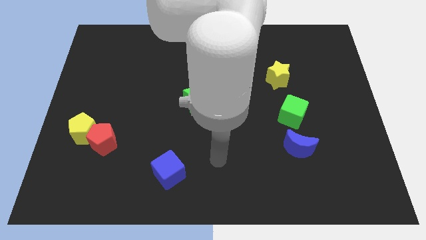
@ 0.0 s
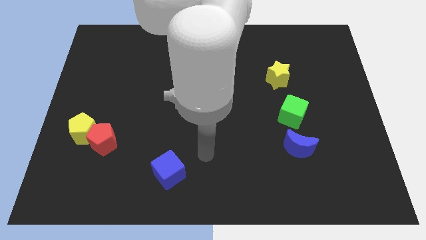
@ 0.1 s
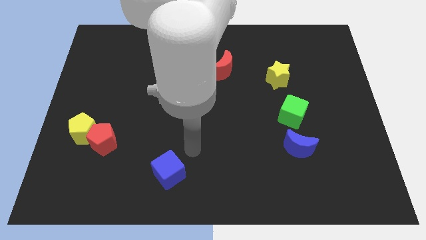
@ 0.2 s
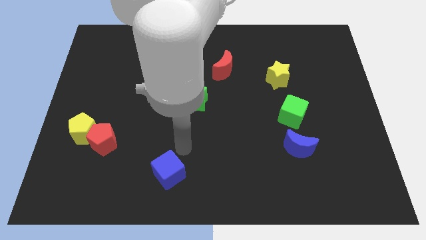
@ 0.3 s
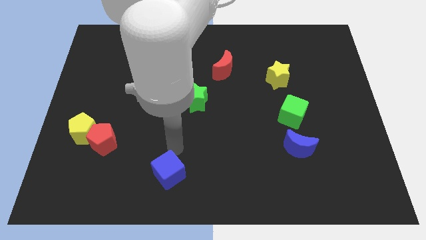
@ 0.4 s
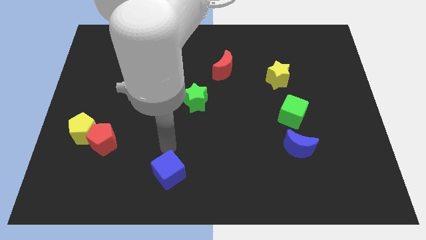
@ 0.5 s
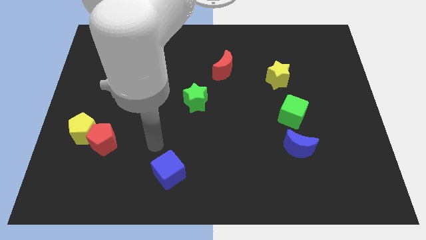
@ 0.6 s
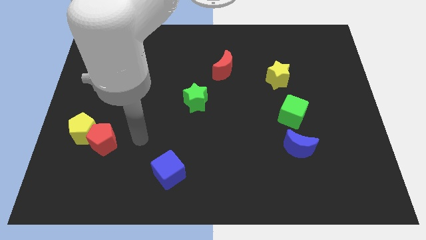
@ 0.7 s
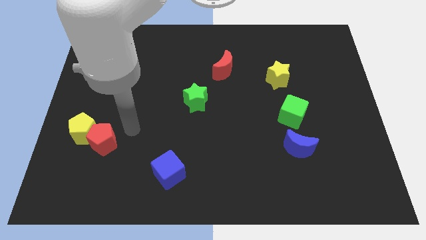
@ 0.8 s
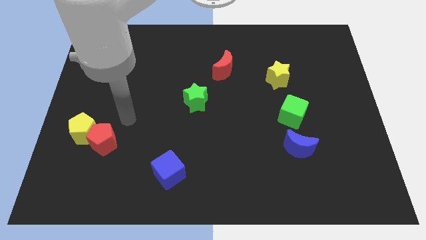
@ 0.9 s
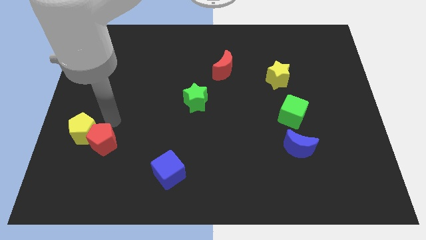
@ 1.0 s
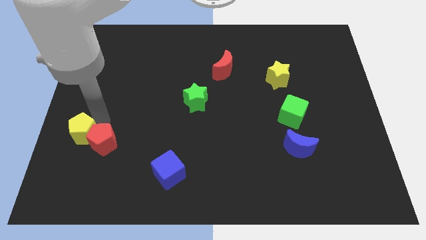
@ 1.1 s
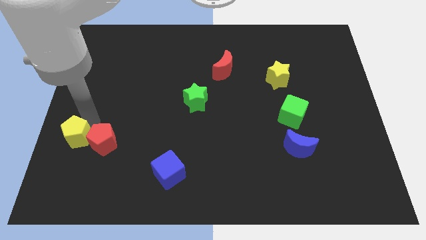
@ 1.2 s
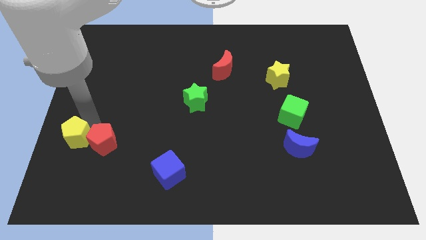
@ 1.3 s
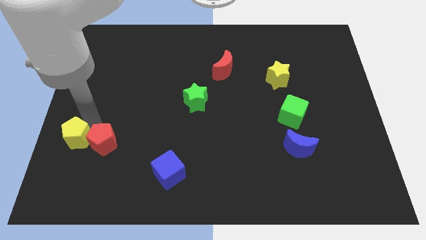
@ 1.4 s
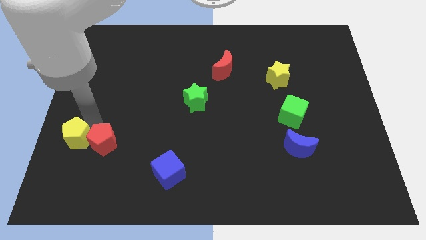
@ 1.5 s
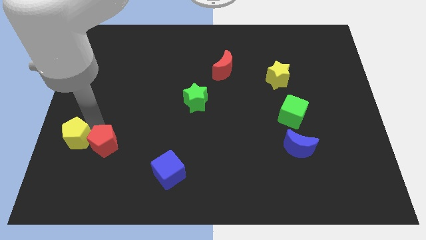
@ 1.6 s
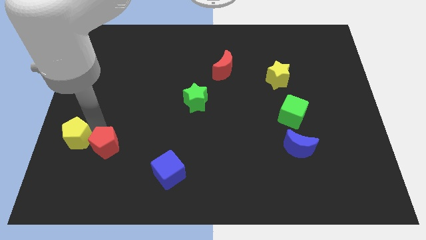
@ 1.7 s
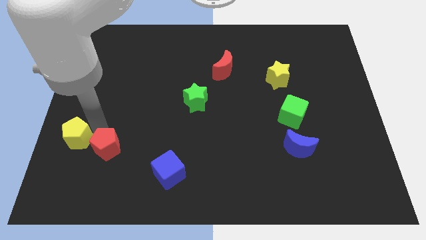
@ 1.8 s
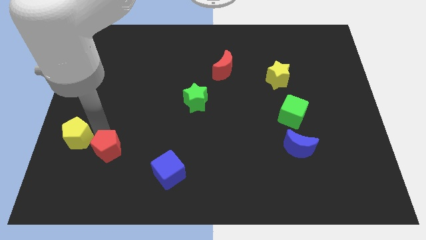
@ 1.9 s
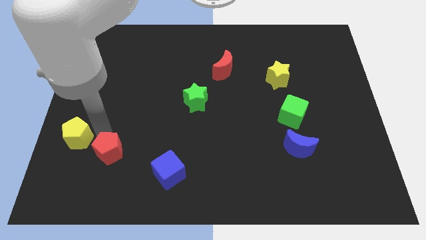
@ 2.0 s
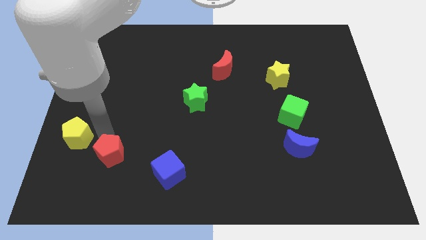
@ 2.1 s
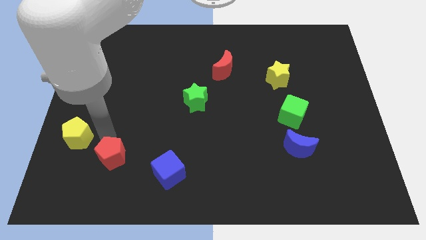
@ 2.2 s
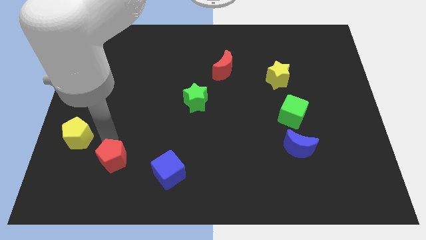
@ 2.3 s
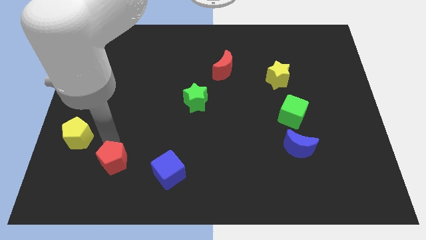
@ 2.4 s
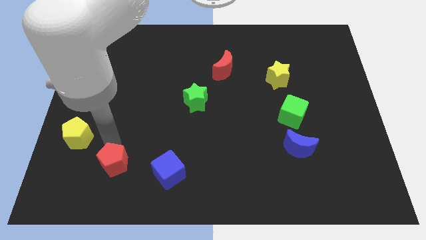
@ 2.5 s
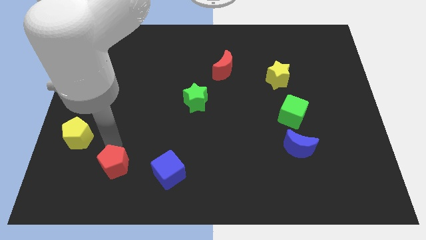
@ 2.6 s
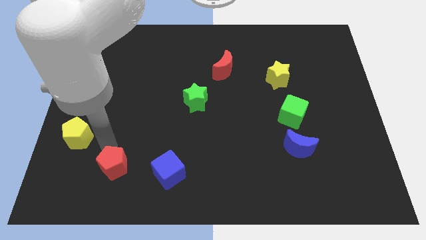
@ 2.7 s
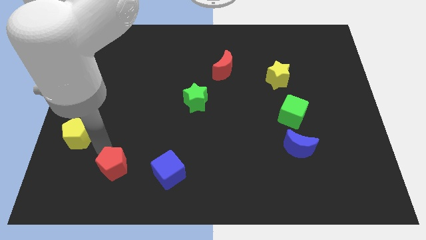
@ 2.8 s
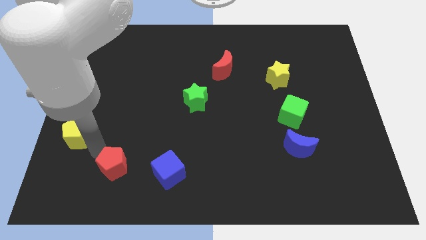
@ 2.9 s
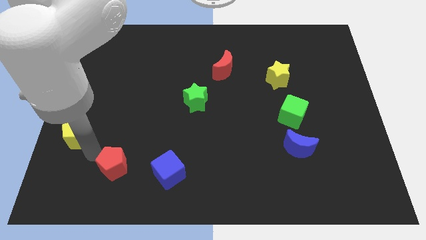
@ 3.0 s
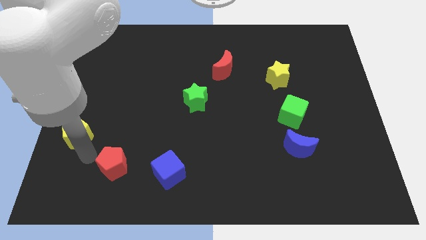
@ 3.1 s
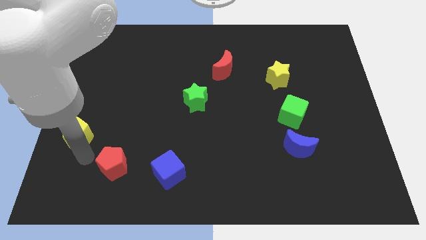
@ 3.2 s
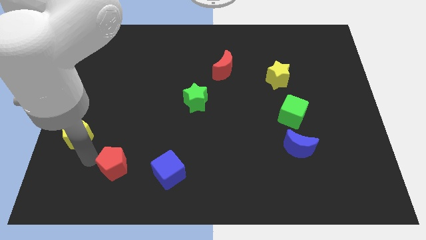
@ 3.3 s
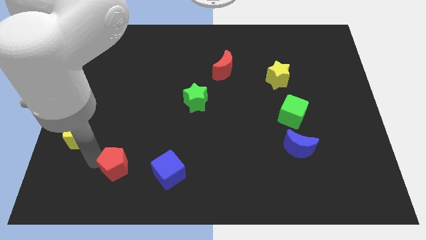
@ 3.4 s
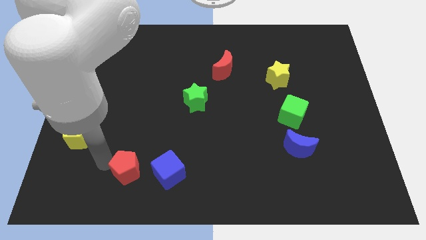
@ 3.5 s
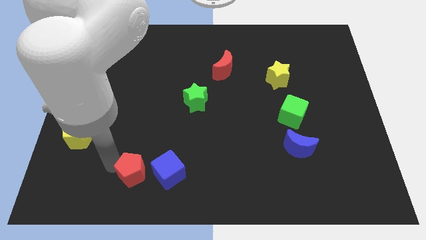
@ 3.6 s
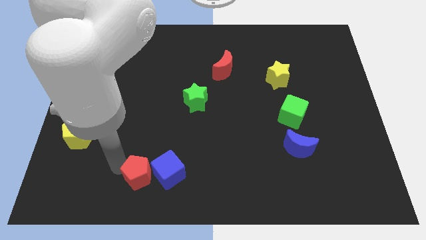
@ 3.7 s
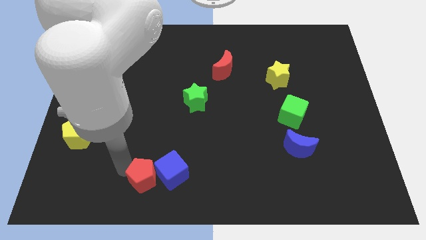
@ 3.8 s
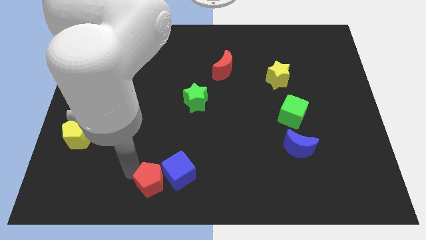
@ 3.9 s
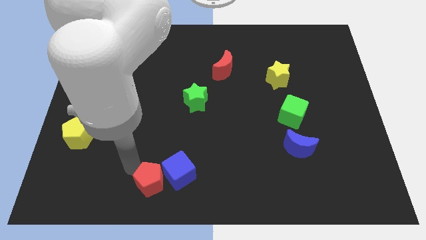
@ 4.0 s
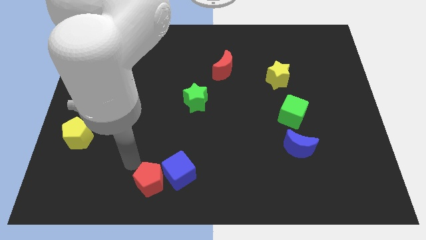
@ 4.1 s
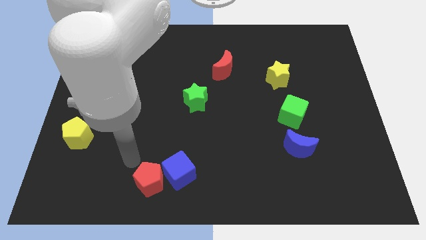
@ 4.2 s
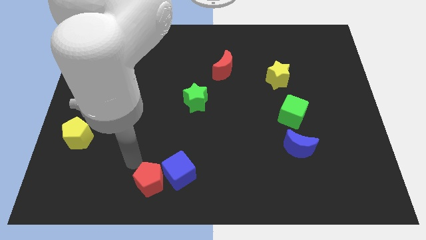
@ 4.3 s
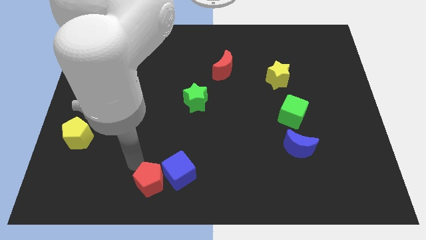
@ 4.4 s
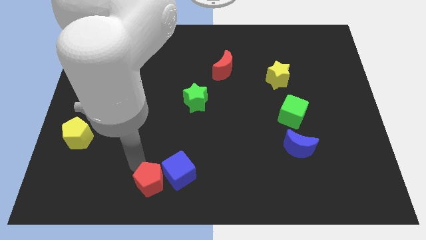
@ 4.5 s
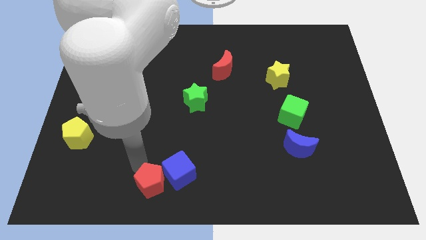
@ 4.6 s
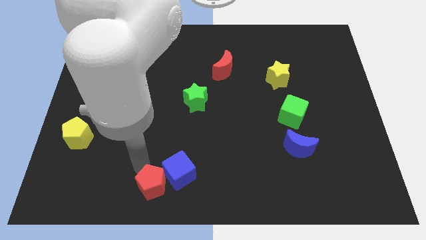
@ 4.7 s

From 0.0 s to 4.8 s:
put the red pentagon to the bottom

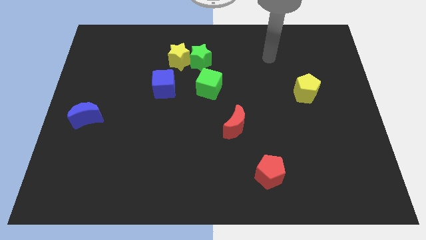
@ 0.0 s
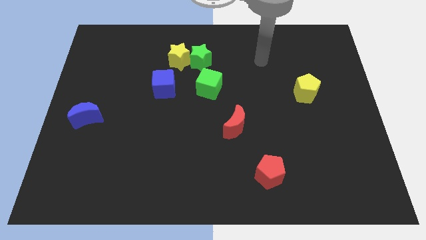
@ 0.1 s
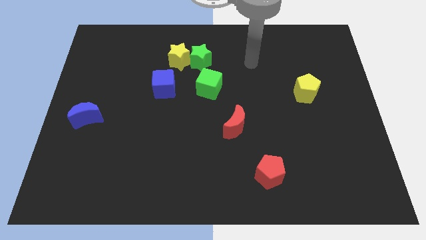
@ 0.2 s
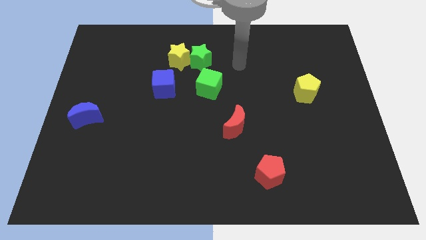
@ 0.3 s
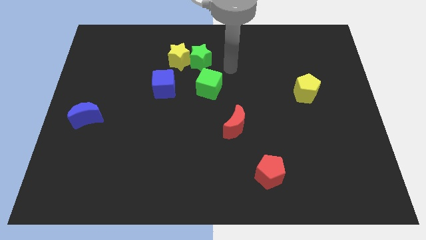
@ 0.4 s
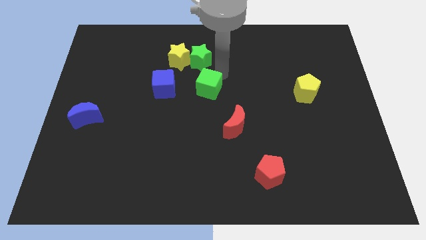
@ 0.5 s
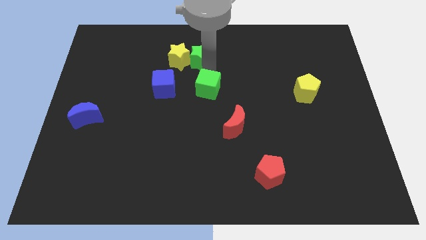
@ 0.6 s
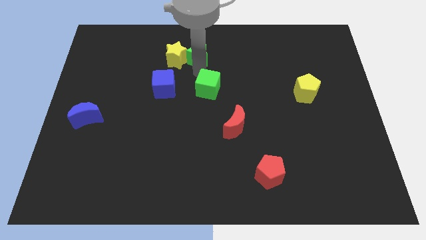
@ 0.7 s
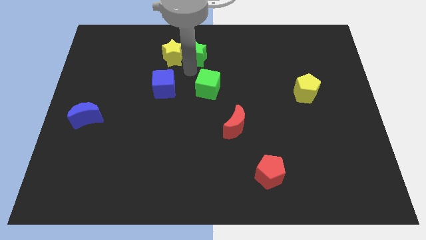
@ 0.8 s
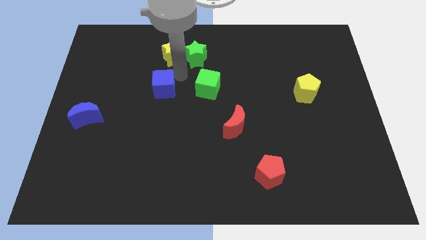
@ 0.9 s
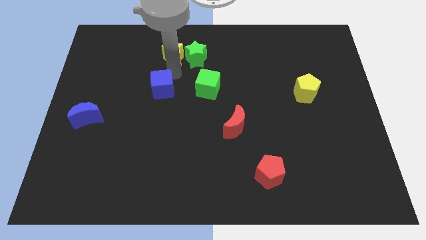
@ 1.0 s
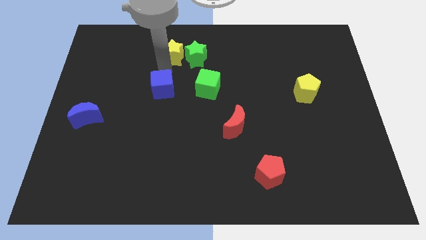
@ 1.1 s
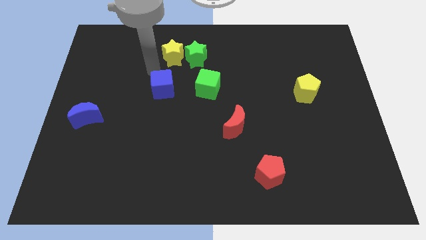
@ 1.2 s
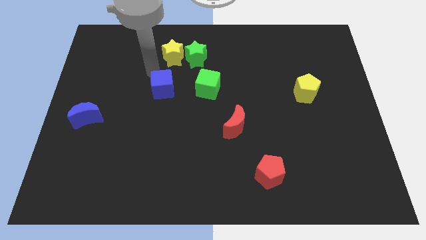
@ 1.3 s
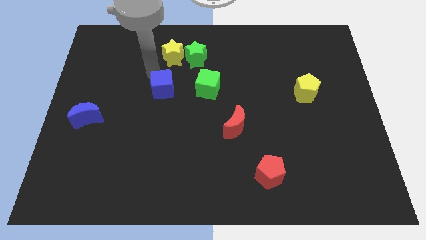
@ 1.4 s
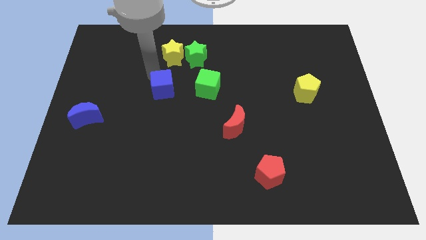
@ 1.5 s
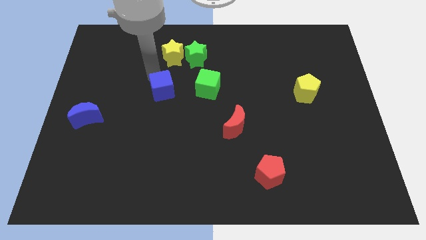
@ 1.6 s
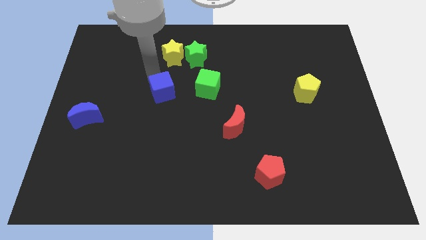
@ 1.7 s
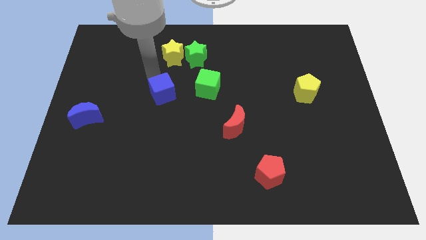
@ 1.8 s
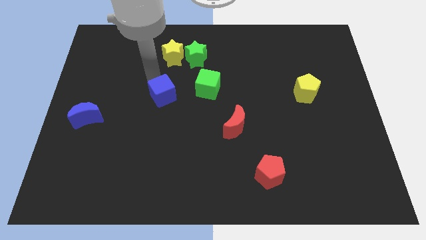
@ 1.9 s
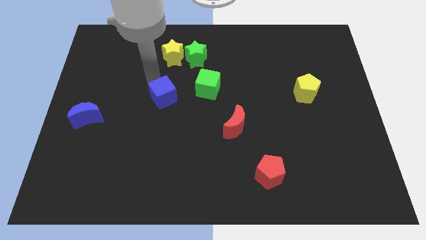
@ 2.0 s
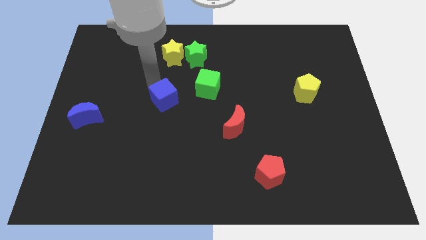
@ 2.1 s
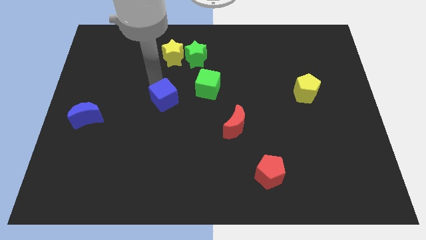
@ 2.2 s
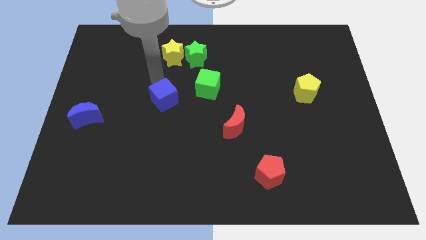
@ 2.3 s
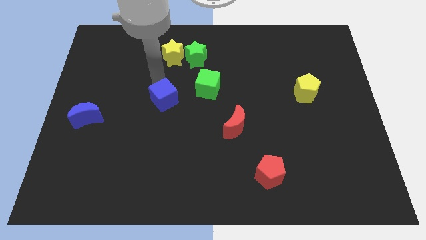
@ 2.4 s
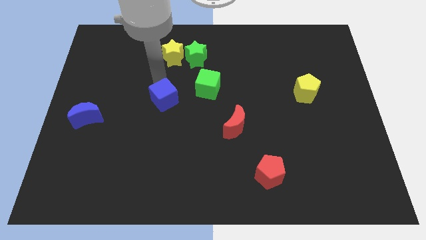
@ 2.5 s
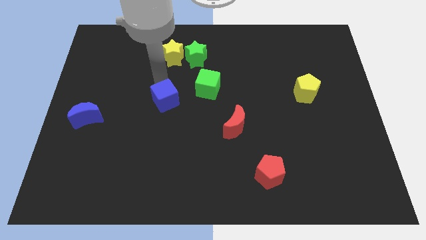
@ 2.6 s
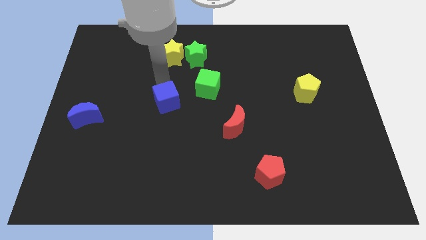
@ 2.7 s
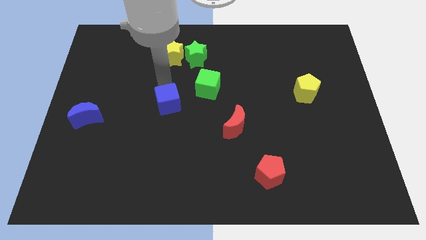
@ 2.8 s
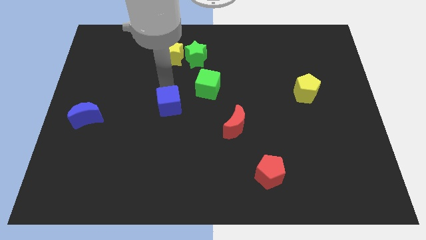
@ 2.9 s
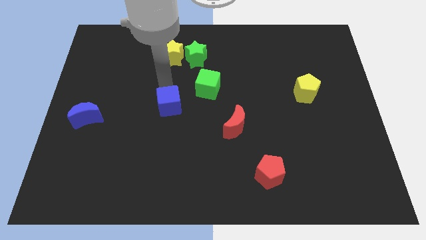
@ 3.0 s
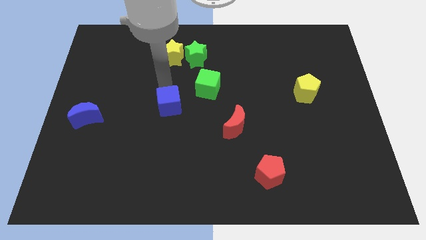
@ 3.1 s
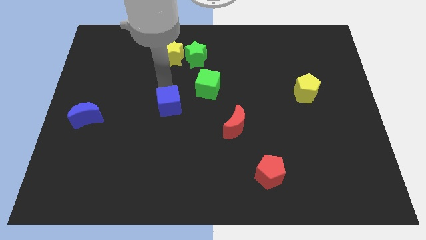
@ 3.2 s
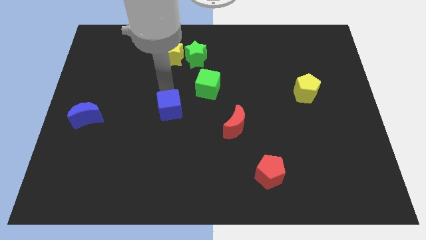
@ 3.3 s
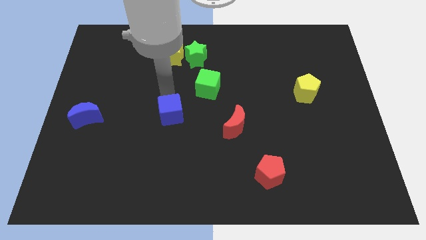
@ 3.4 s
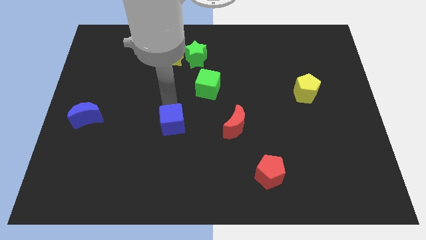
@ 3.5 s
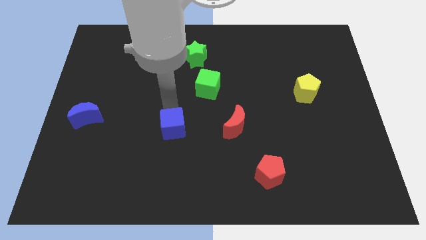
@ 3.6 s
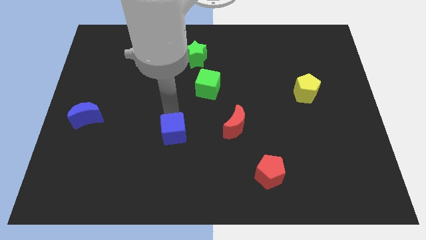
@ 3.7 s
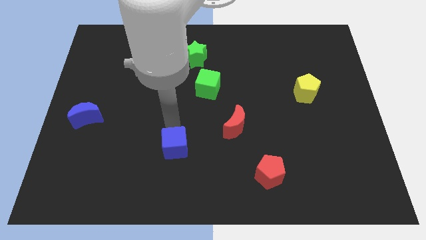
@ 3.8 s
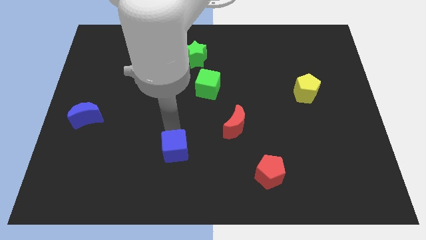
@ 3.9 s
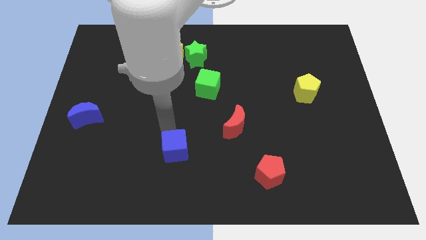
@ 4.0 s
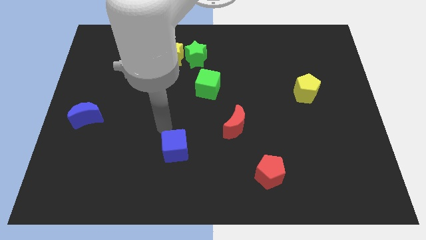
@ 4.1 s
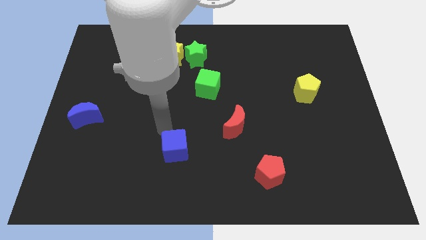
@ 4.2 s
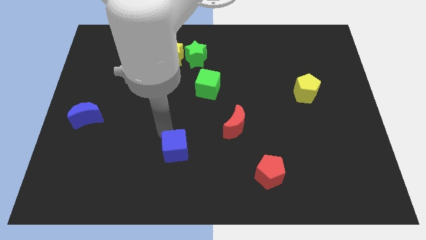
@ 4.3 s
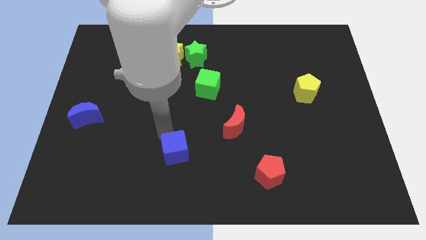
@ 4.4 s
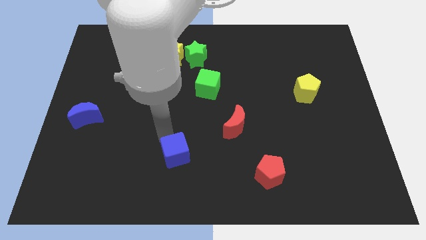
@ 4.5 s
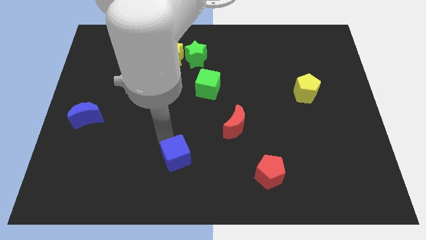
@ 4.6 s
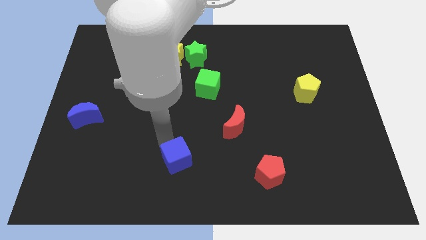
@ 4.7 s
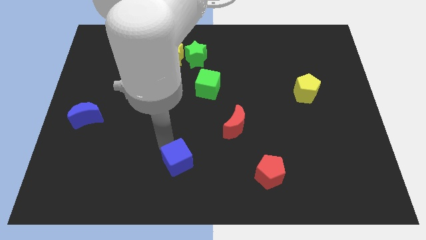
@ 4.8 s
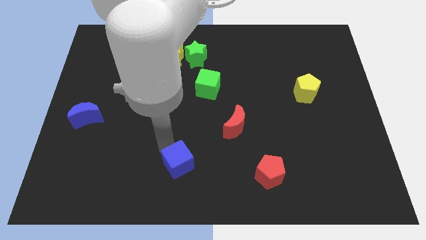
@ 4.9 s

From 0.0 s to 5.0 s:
push the blue cube to the bottom side
